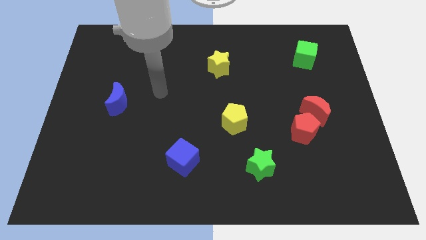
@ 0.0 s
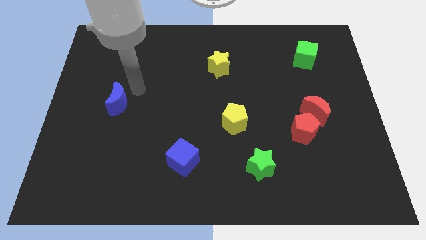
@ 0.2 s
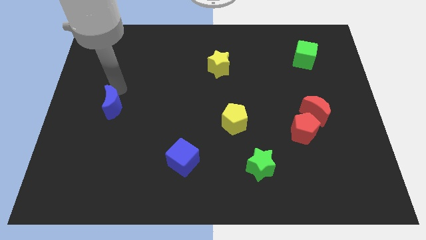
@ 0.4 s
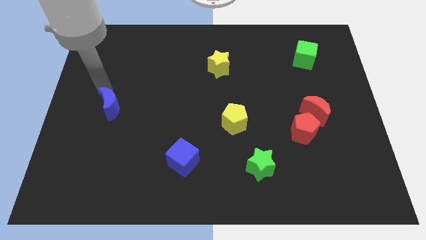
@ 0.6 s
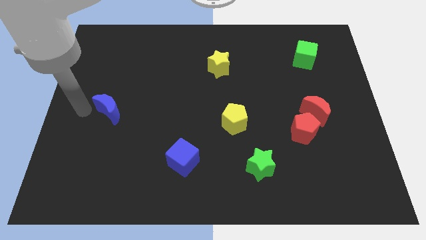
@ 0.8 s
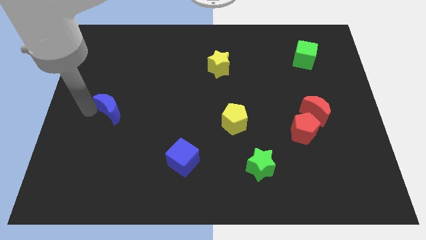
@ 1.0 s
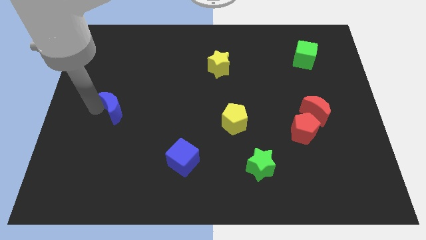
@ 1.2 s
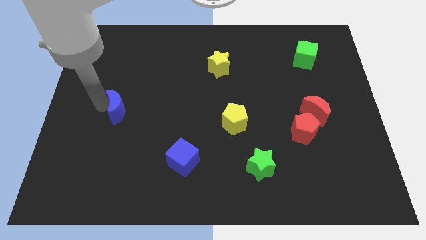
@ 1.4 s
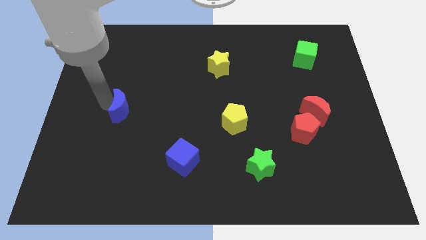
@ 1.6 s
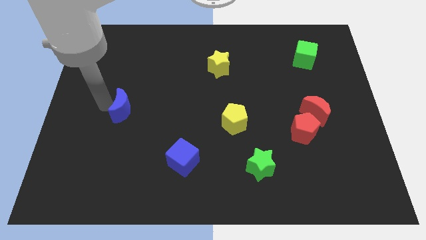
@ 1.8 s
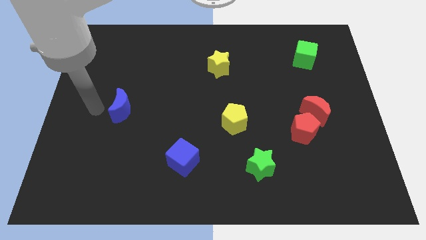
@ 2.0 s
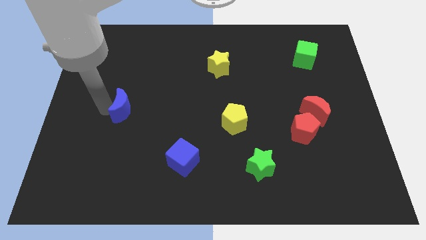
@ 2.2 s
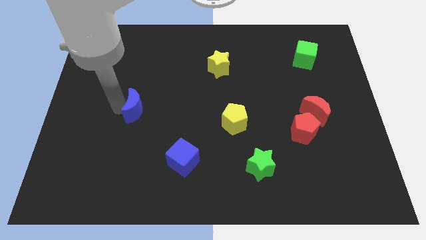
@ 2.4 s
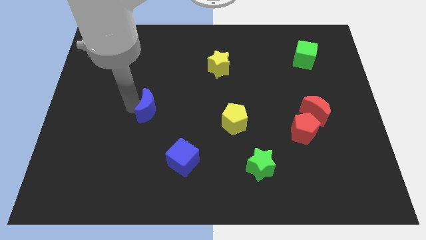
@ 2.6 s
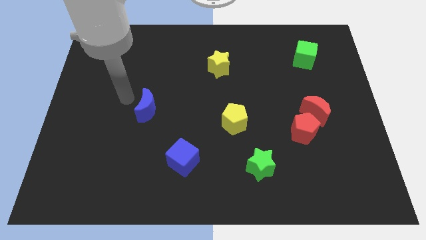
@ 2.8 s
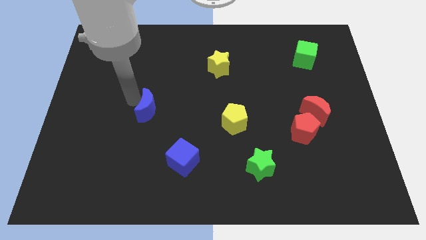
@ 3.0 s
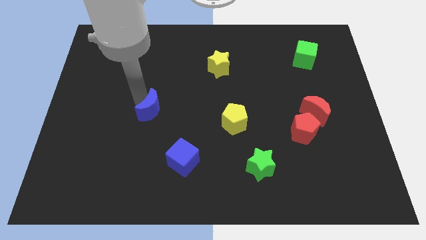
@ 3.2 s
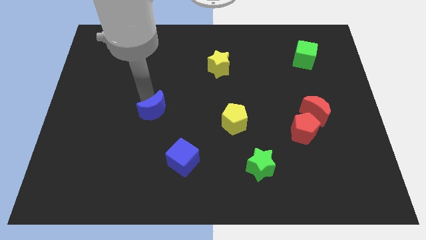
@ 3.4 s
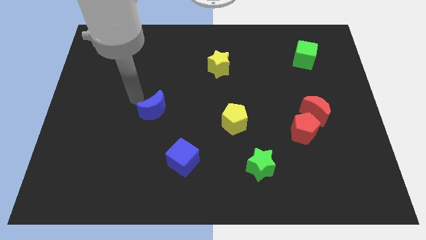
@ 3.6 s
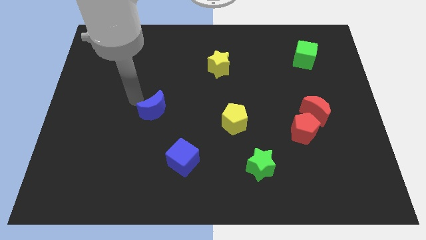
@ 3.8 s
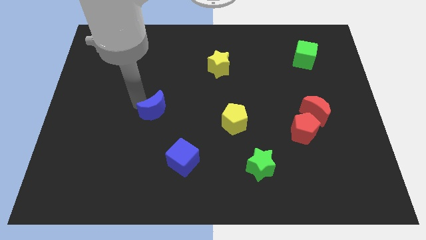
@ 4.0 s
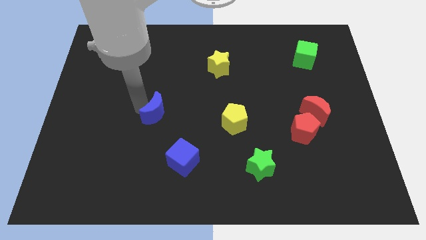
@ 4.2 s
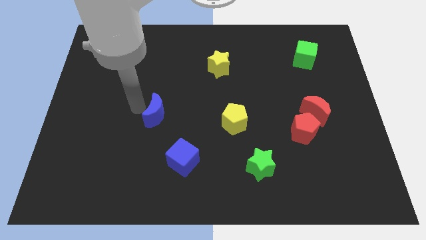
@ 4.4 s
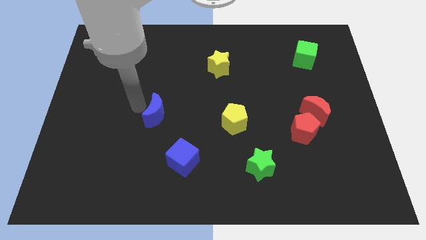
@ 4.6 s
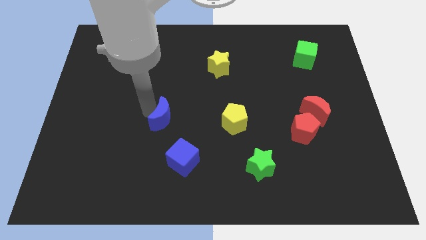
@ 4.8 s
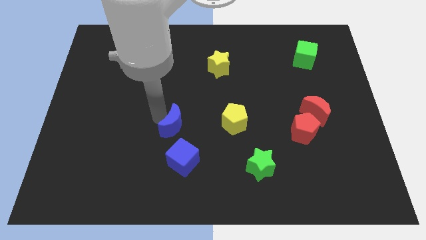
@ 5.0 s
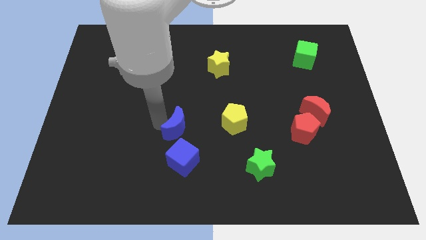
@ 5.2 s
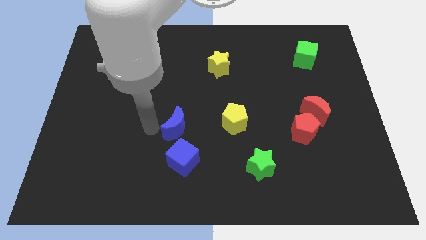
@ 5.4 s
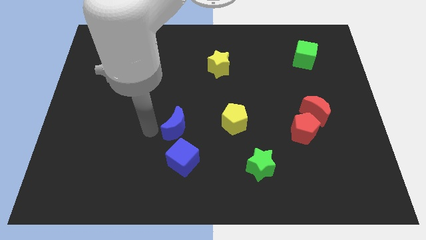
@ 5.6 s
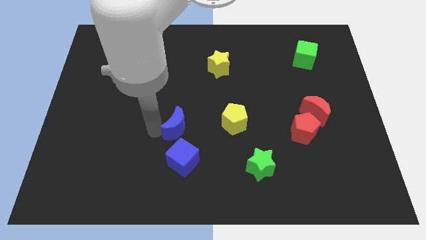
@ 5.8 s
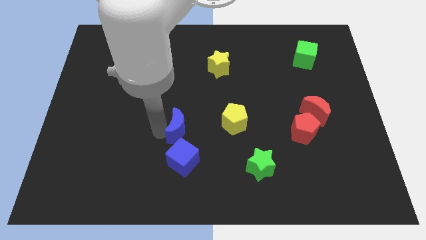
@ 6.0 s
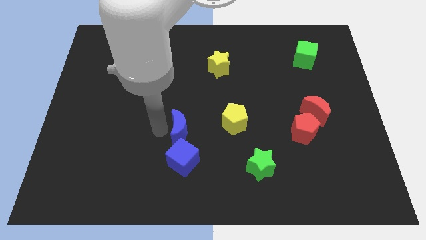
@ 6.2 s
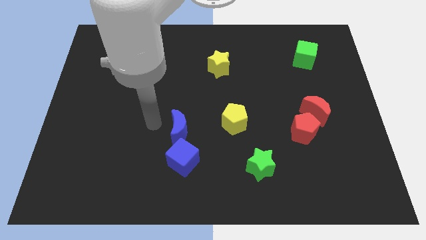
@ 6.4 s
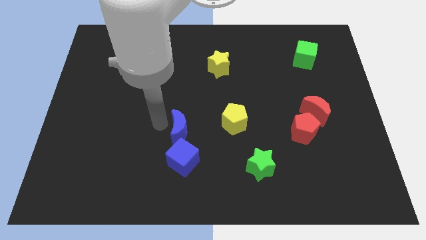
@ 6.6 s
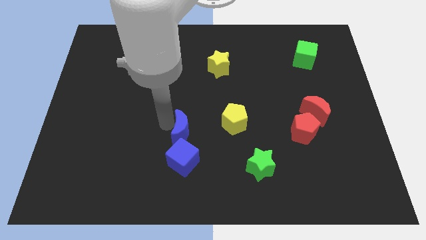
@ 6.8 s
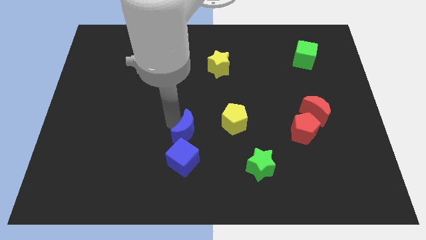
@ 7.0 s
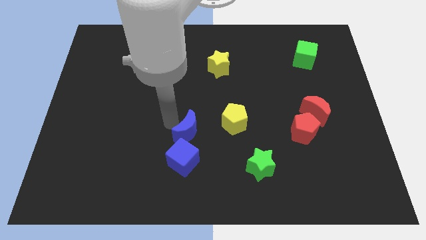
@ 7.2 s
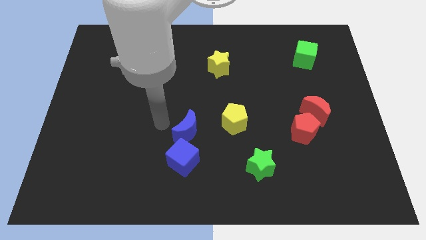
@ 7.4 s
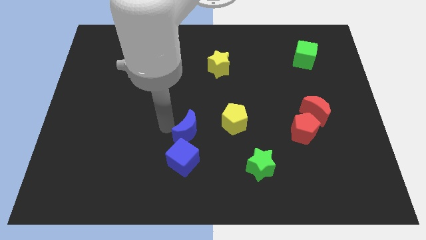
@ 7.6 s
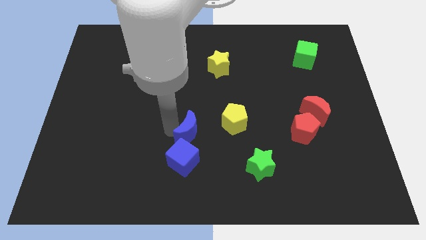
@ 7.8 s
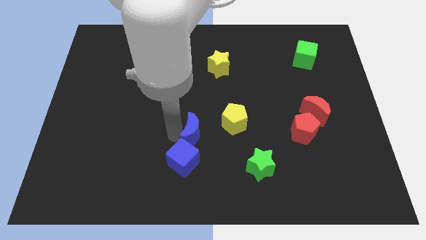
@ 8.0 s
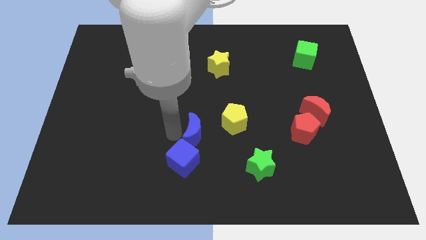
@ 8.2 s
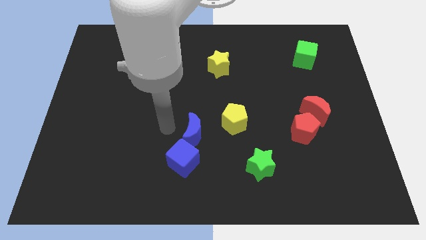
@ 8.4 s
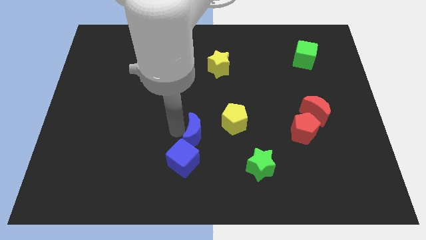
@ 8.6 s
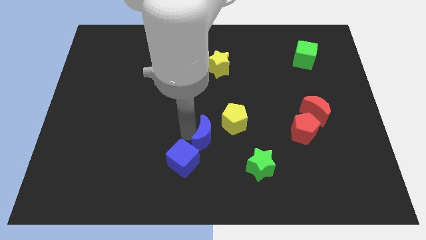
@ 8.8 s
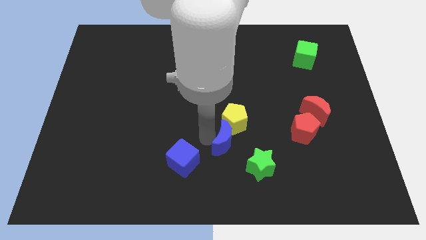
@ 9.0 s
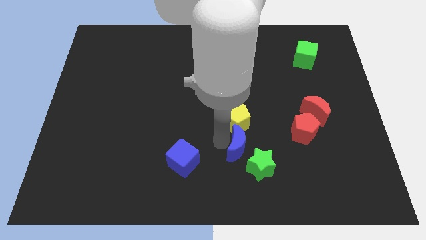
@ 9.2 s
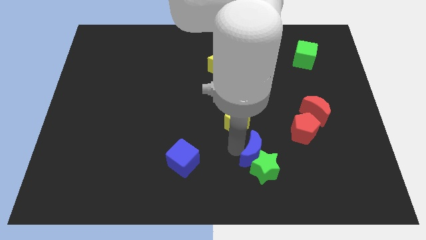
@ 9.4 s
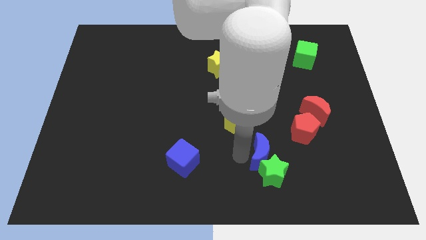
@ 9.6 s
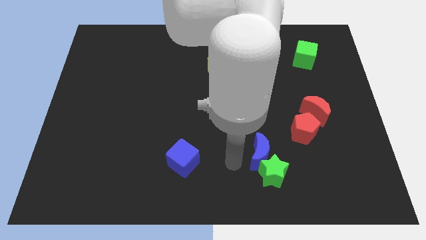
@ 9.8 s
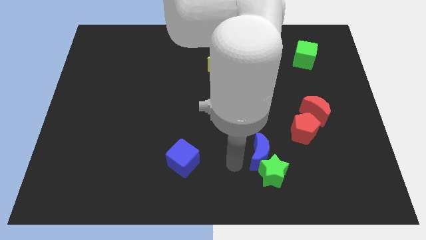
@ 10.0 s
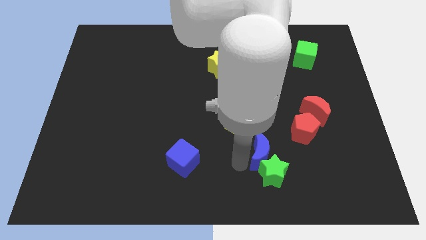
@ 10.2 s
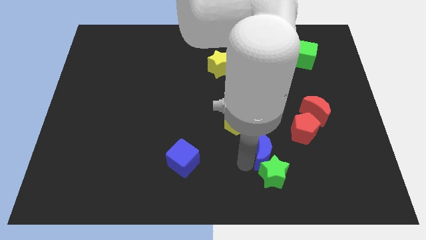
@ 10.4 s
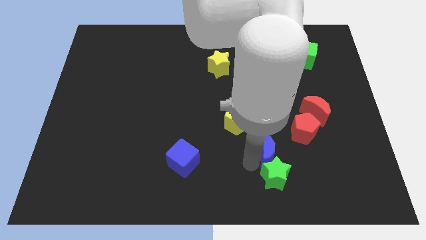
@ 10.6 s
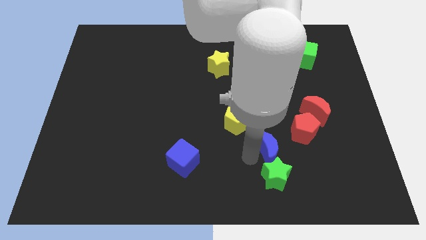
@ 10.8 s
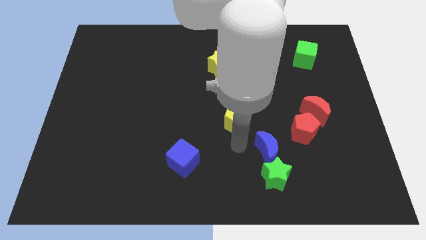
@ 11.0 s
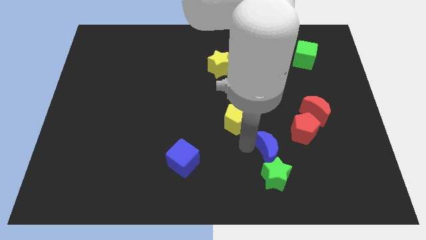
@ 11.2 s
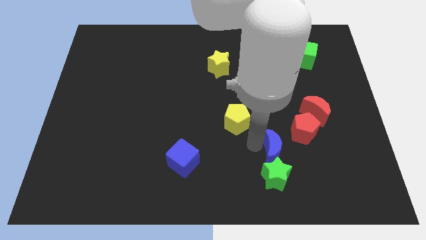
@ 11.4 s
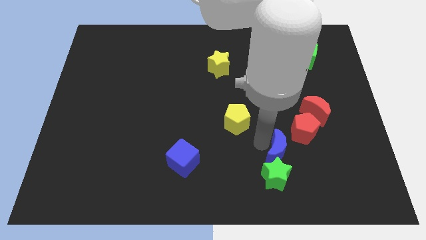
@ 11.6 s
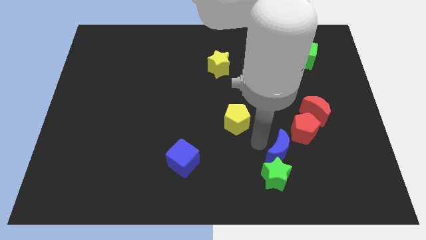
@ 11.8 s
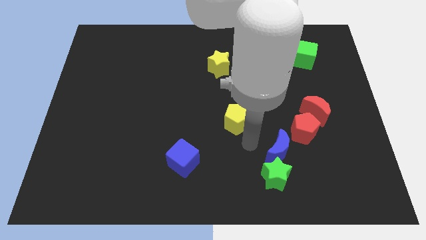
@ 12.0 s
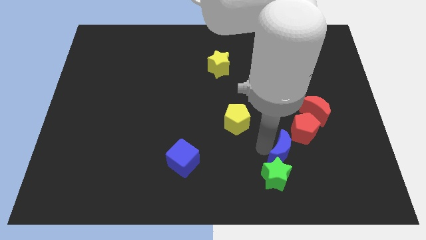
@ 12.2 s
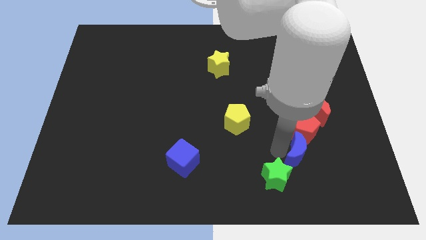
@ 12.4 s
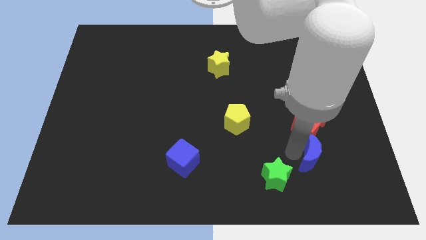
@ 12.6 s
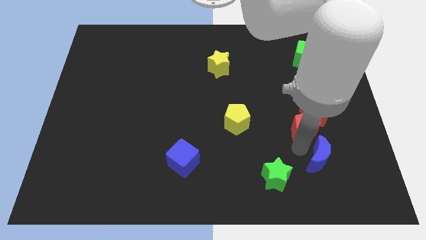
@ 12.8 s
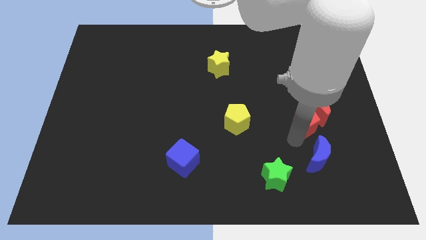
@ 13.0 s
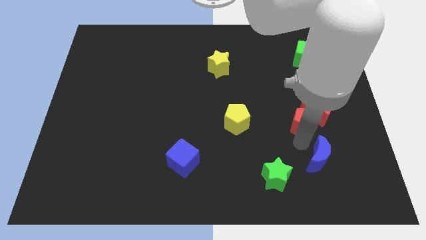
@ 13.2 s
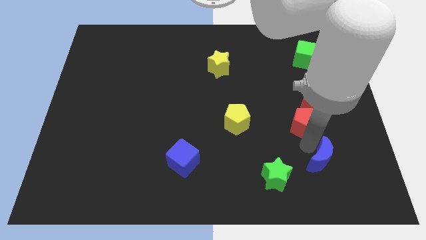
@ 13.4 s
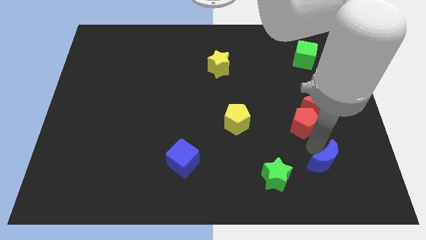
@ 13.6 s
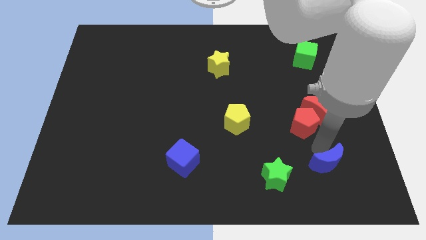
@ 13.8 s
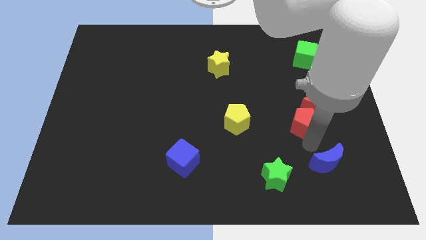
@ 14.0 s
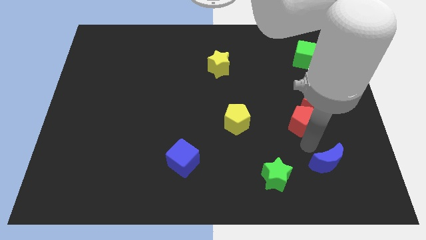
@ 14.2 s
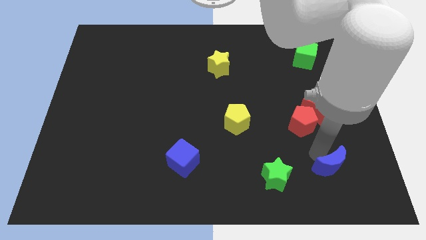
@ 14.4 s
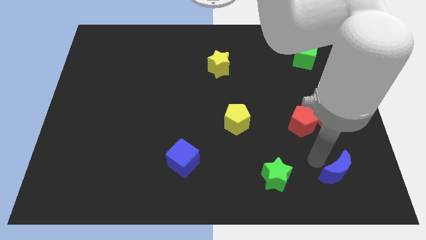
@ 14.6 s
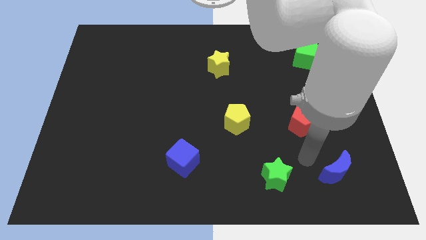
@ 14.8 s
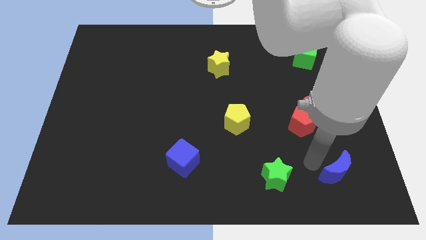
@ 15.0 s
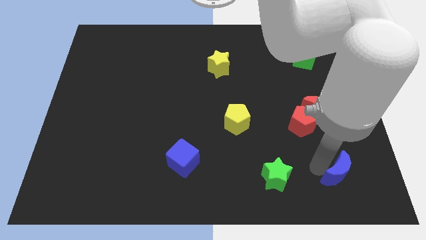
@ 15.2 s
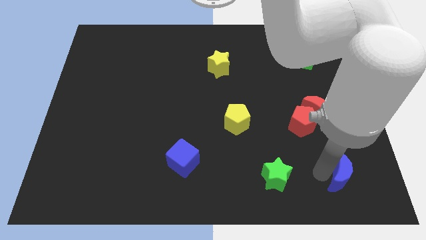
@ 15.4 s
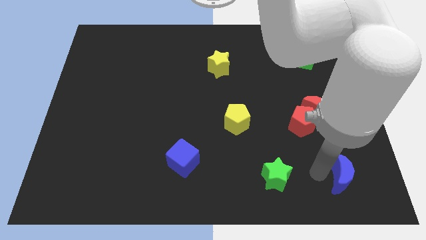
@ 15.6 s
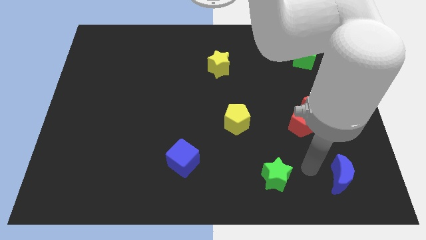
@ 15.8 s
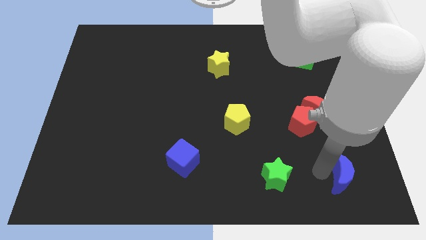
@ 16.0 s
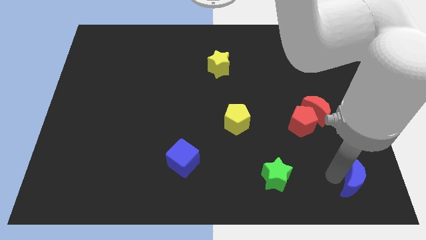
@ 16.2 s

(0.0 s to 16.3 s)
put the blue moon to the lower right corner
